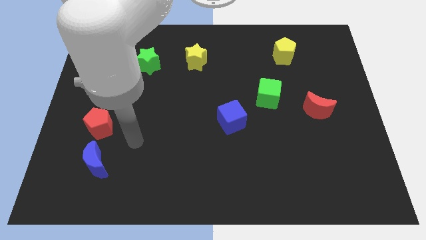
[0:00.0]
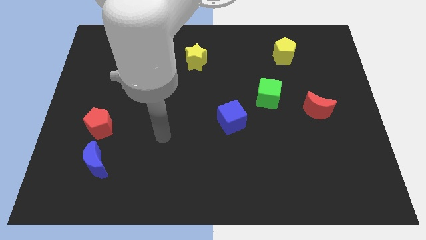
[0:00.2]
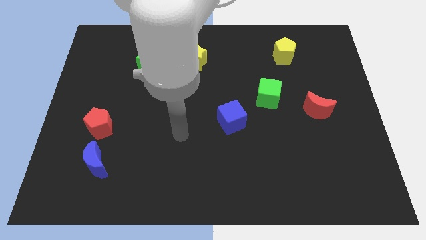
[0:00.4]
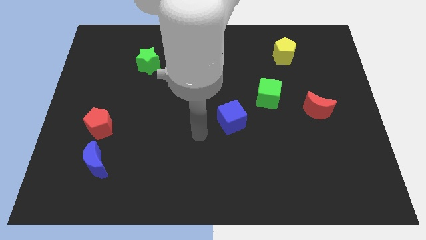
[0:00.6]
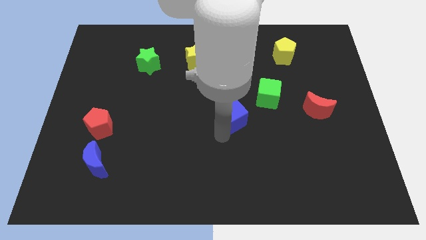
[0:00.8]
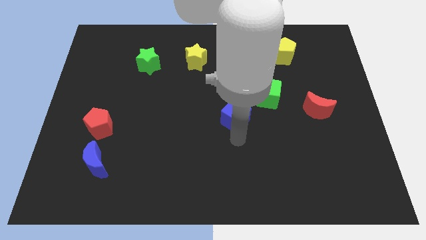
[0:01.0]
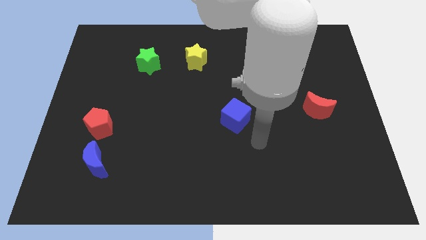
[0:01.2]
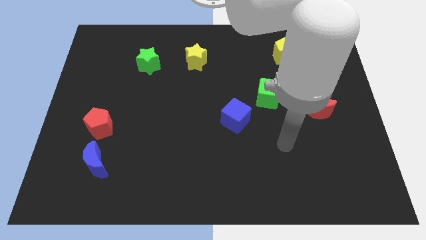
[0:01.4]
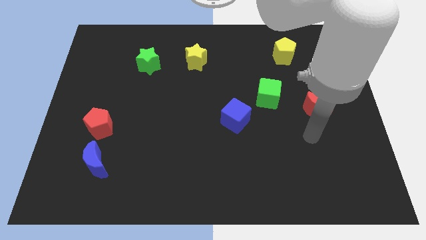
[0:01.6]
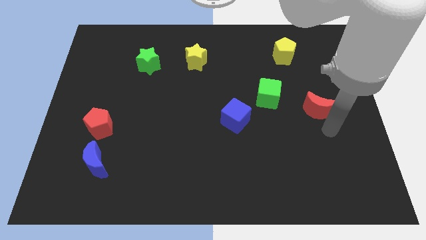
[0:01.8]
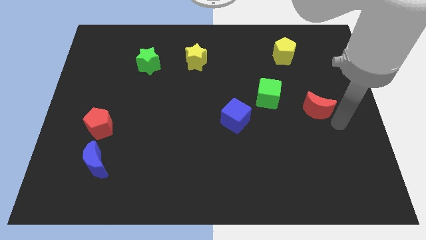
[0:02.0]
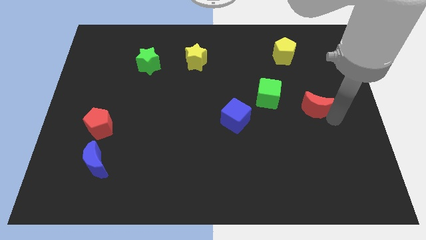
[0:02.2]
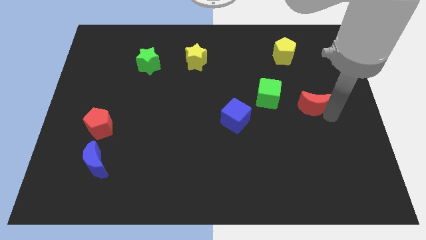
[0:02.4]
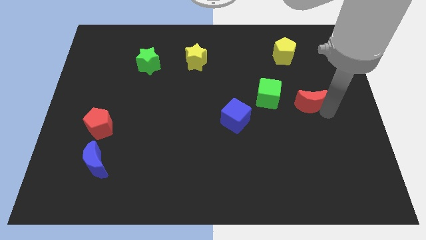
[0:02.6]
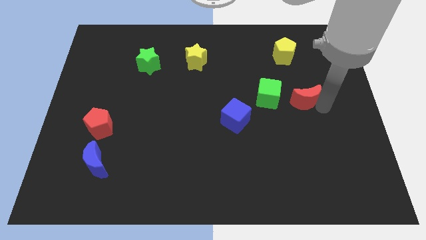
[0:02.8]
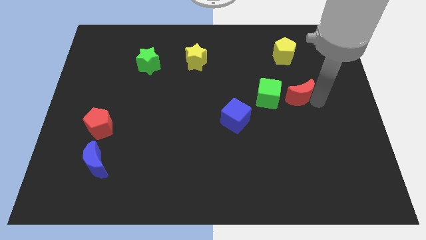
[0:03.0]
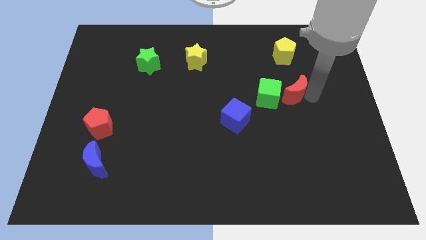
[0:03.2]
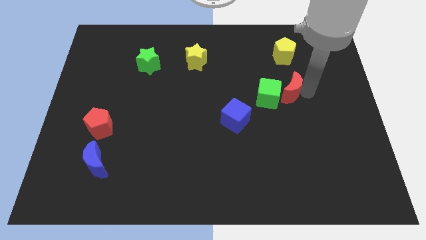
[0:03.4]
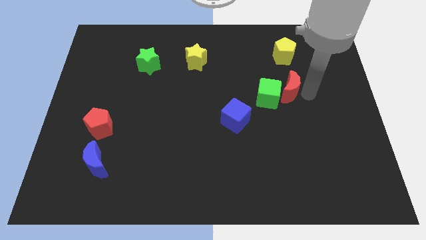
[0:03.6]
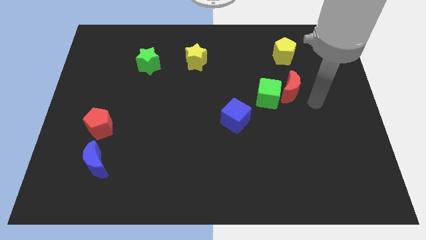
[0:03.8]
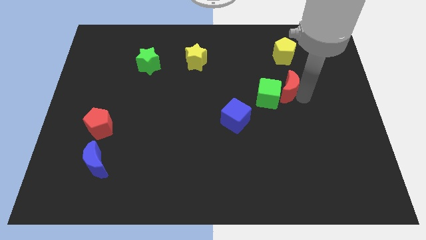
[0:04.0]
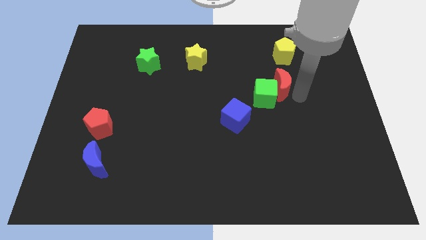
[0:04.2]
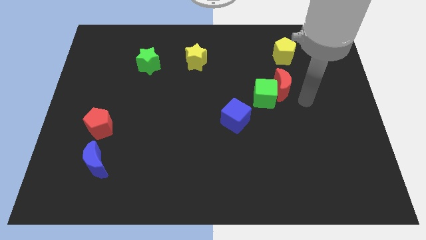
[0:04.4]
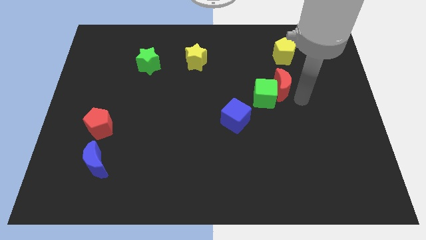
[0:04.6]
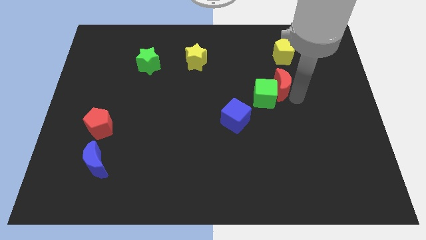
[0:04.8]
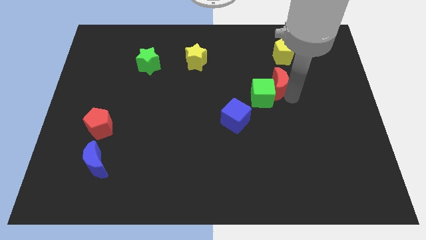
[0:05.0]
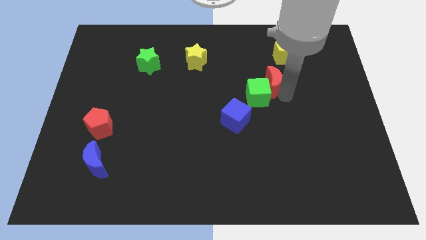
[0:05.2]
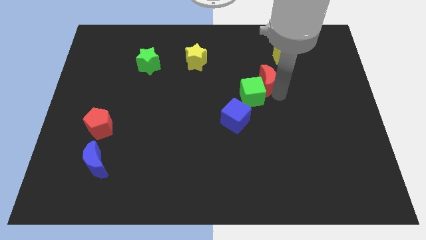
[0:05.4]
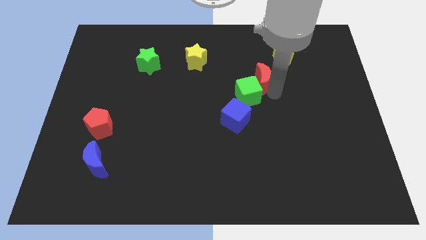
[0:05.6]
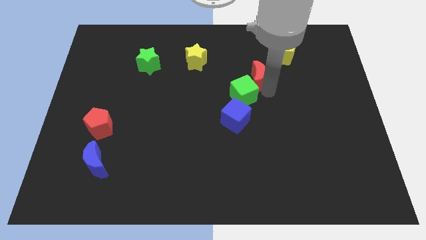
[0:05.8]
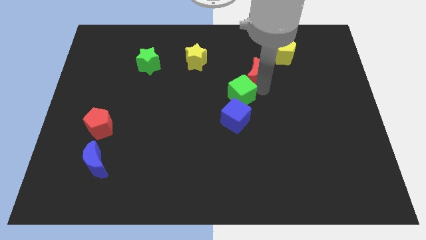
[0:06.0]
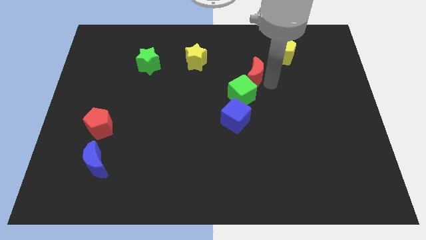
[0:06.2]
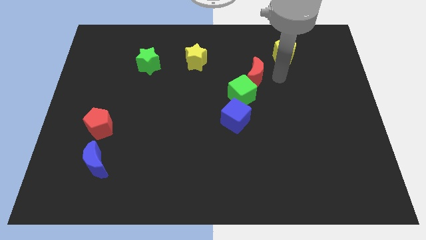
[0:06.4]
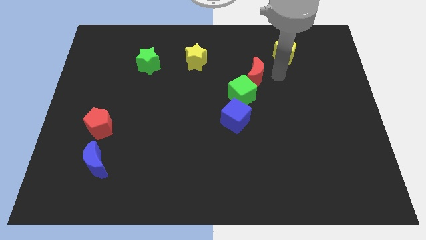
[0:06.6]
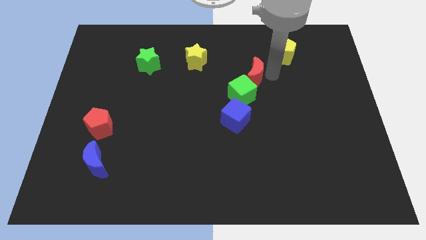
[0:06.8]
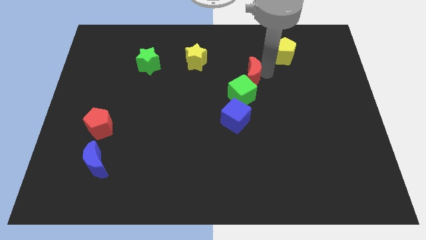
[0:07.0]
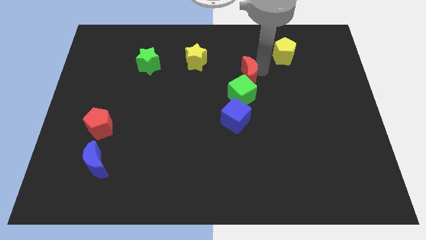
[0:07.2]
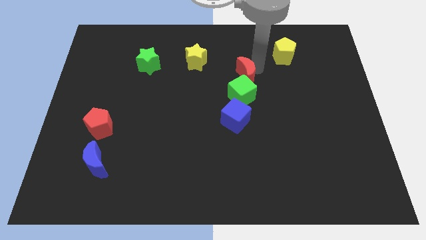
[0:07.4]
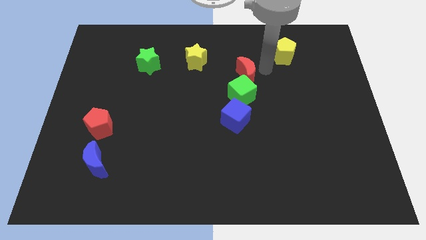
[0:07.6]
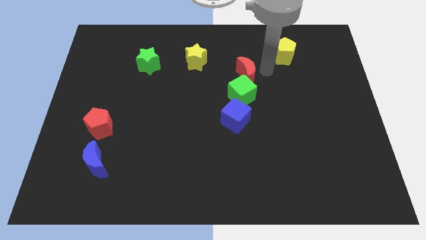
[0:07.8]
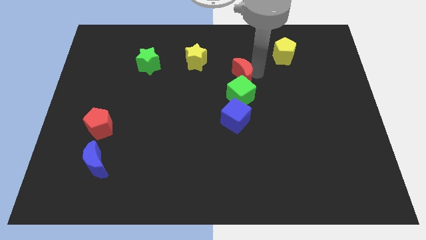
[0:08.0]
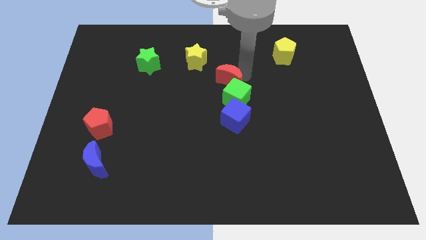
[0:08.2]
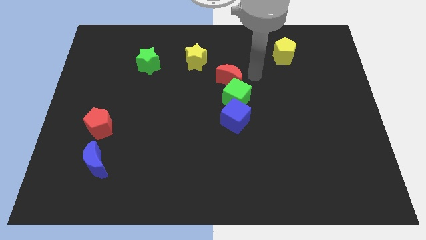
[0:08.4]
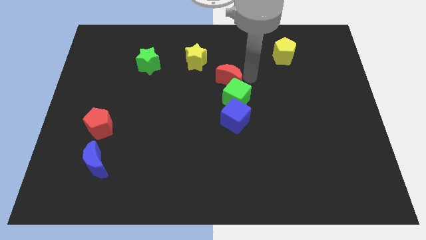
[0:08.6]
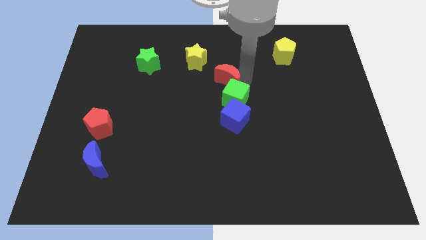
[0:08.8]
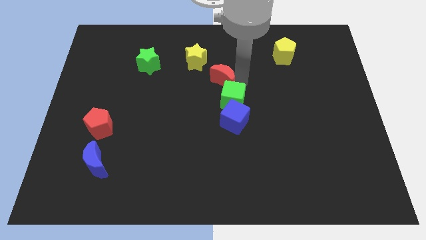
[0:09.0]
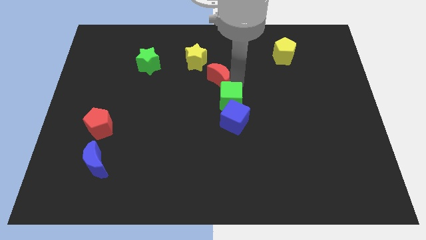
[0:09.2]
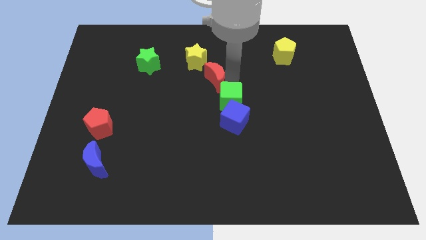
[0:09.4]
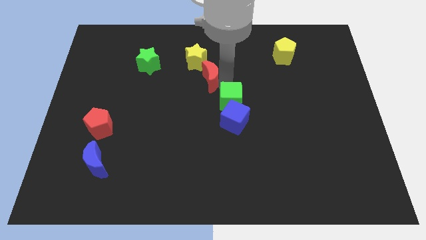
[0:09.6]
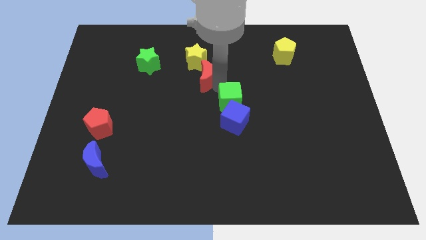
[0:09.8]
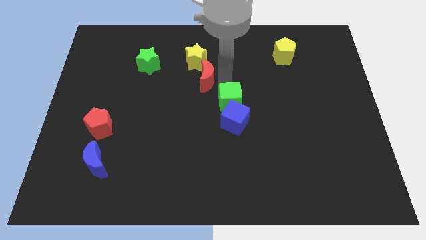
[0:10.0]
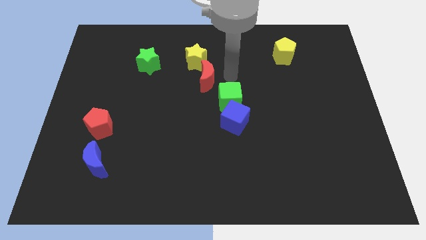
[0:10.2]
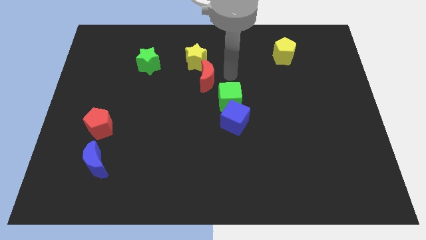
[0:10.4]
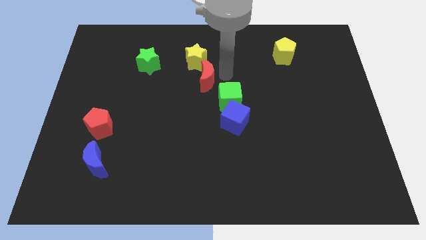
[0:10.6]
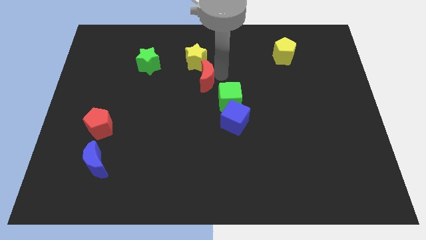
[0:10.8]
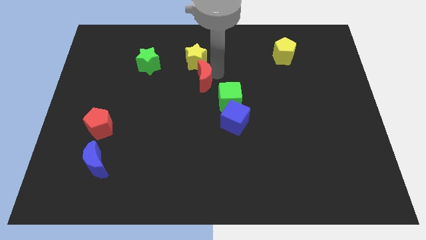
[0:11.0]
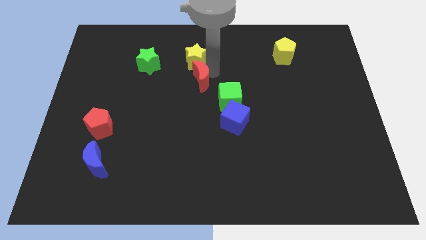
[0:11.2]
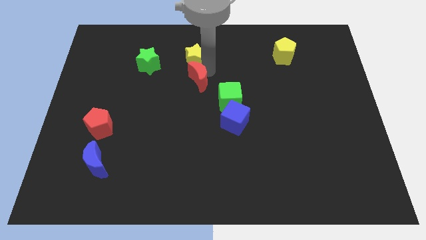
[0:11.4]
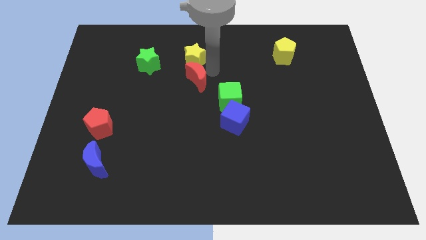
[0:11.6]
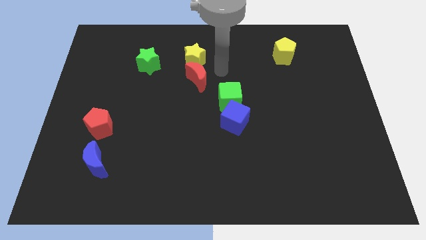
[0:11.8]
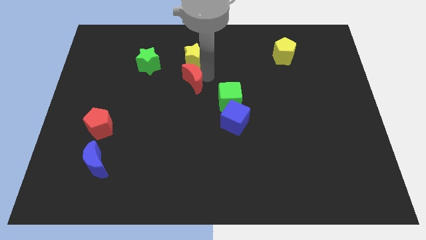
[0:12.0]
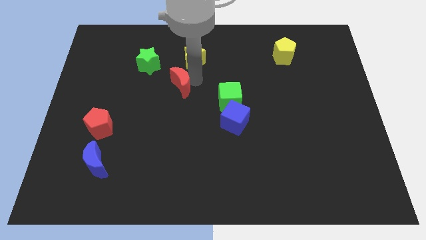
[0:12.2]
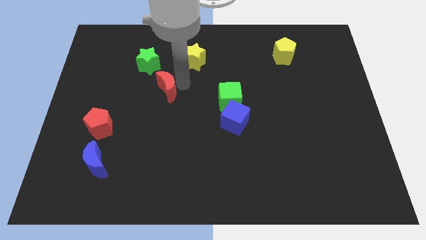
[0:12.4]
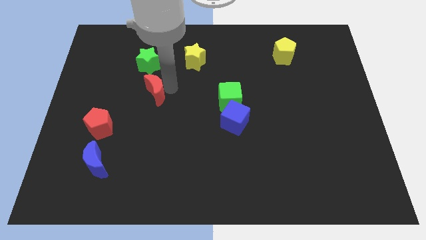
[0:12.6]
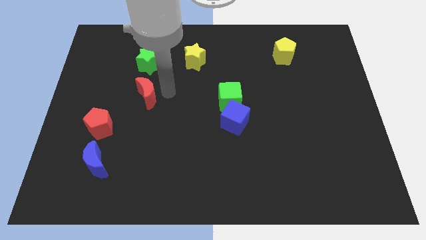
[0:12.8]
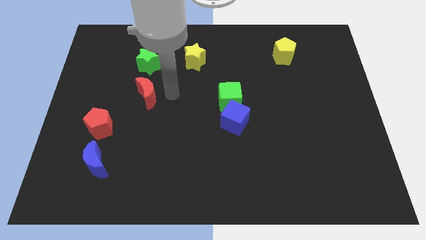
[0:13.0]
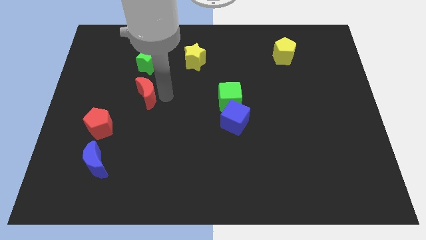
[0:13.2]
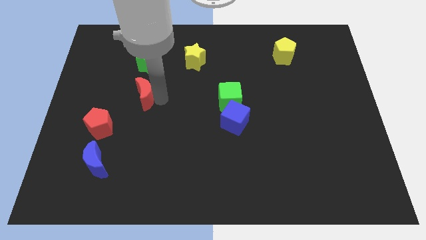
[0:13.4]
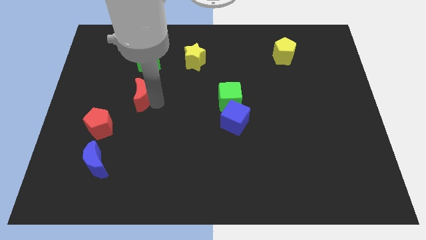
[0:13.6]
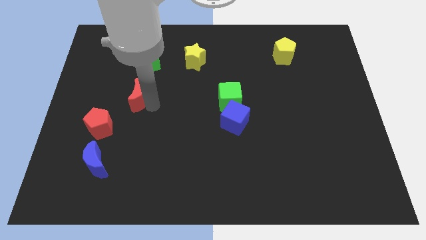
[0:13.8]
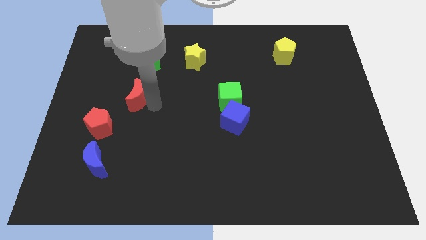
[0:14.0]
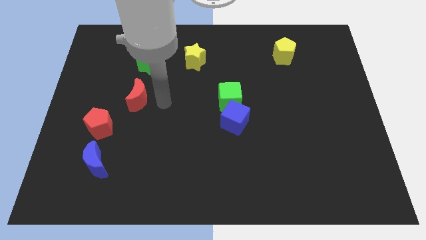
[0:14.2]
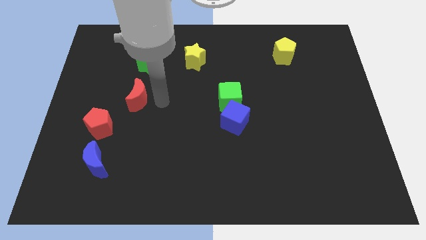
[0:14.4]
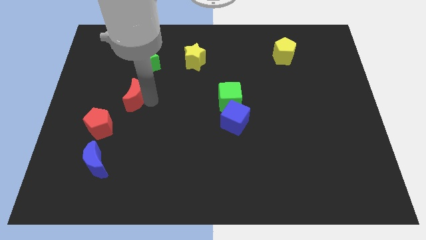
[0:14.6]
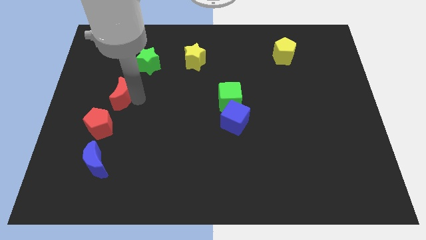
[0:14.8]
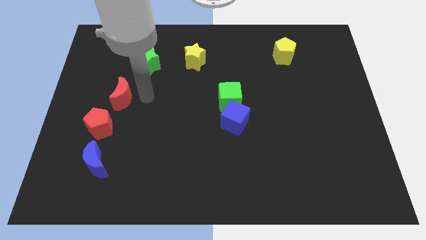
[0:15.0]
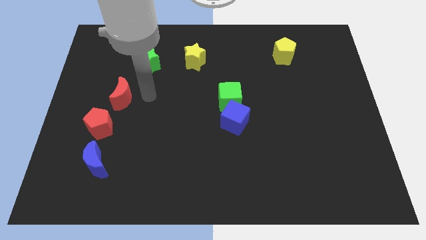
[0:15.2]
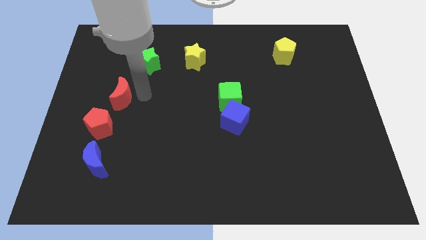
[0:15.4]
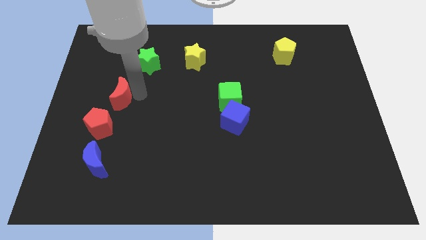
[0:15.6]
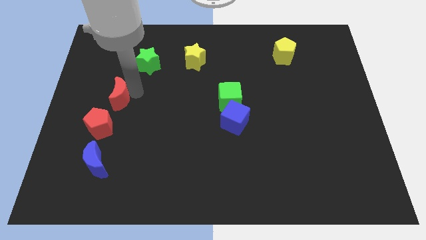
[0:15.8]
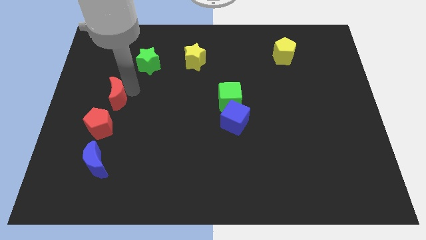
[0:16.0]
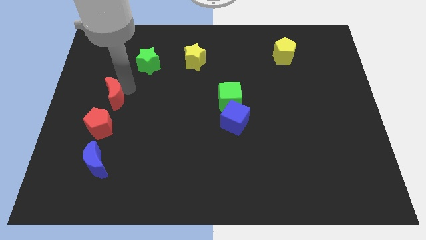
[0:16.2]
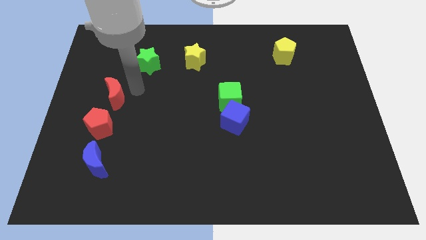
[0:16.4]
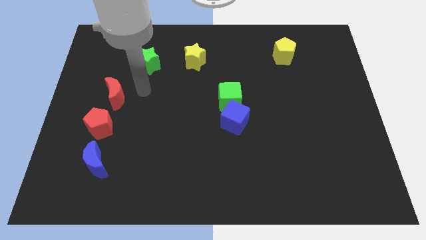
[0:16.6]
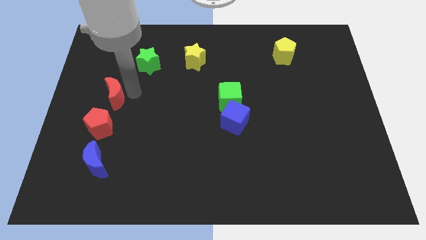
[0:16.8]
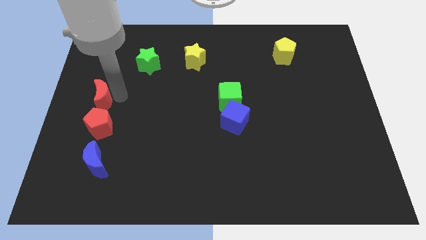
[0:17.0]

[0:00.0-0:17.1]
move the red moon to the left side
